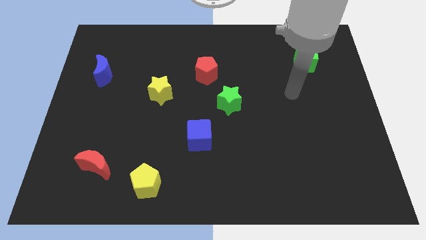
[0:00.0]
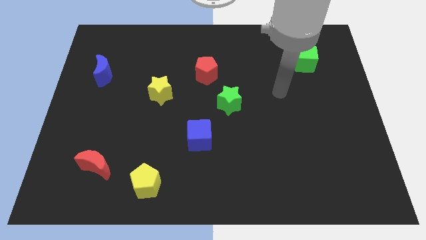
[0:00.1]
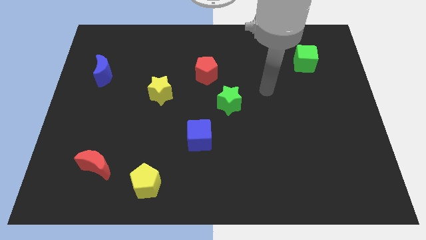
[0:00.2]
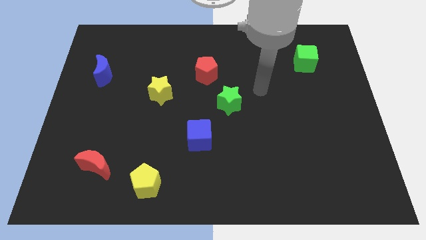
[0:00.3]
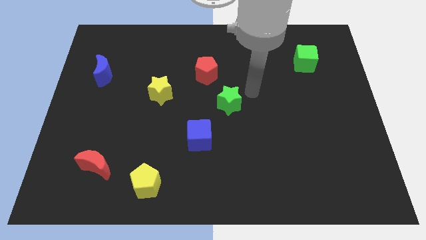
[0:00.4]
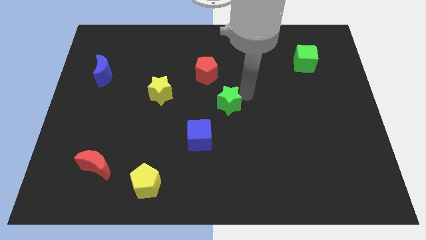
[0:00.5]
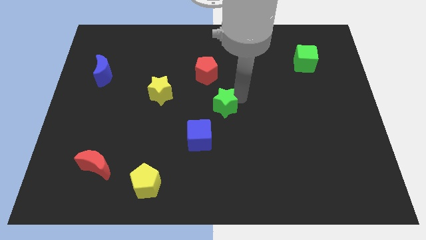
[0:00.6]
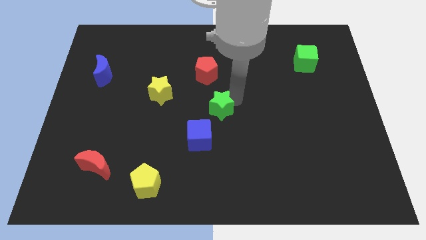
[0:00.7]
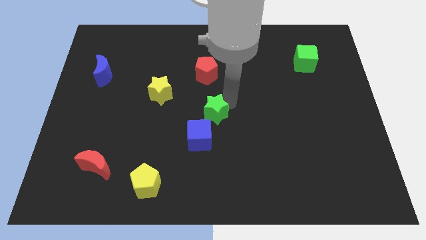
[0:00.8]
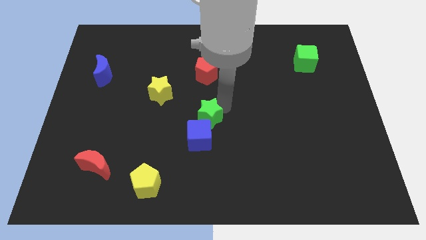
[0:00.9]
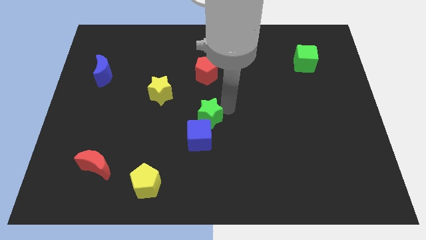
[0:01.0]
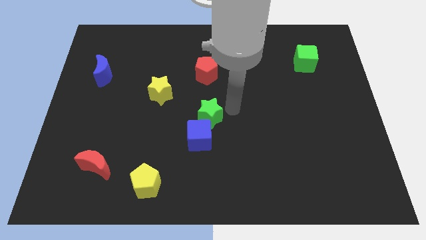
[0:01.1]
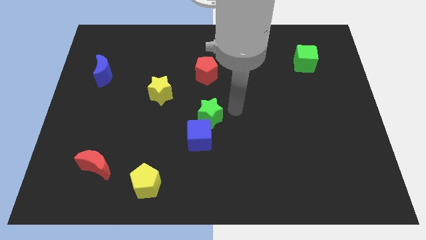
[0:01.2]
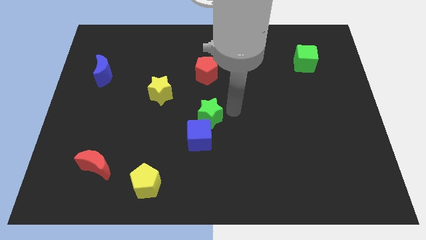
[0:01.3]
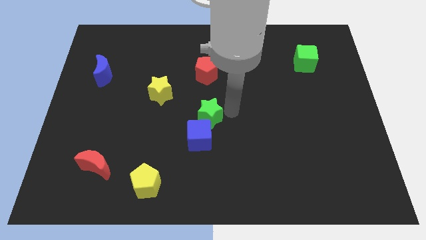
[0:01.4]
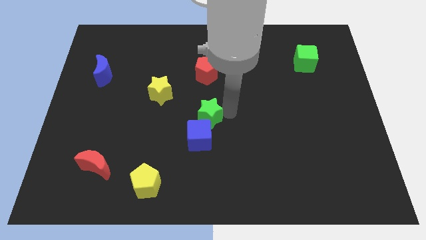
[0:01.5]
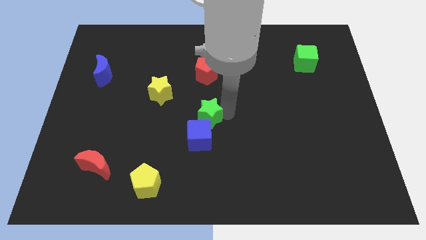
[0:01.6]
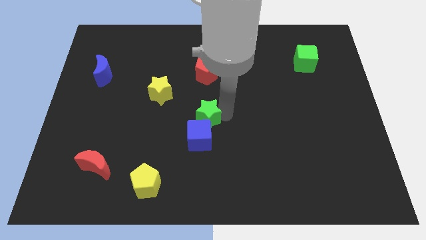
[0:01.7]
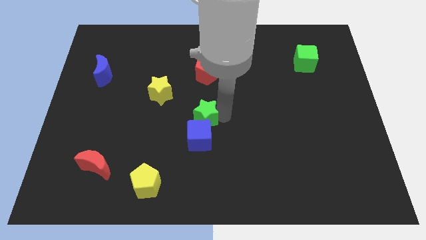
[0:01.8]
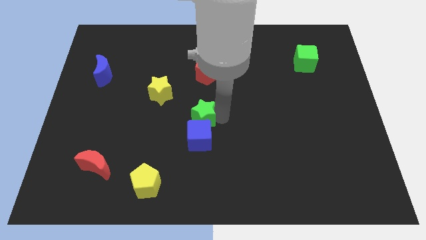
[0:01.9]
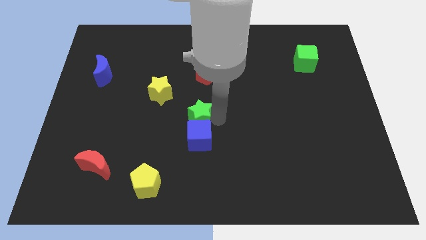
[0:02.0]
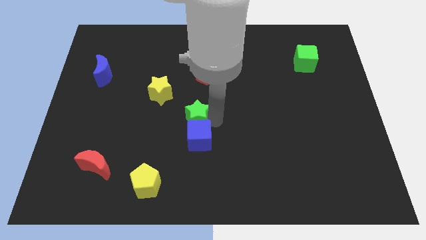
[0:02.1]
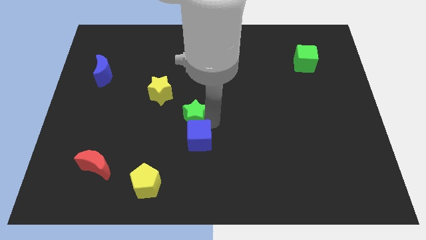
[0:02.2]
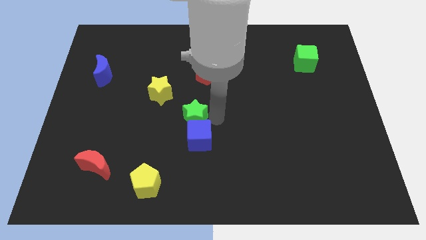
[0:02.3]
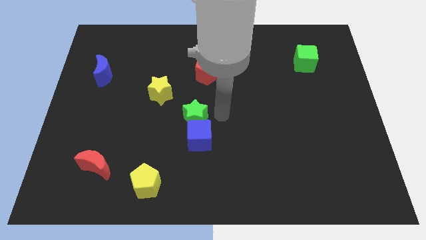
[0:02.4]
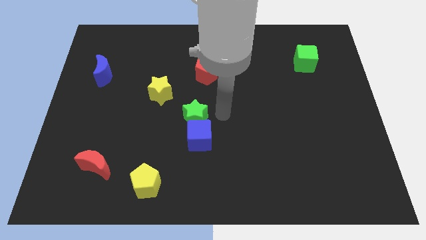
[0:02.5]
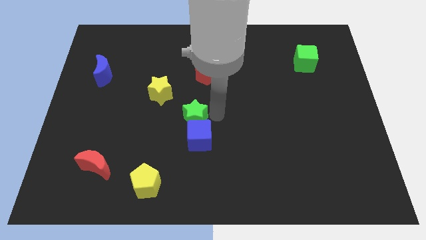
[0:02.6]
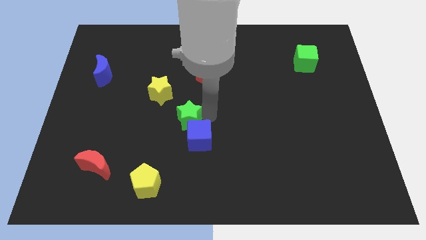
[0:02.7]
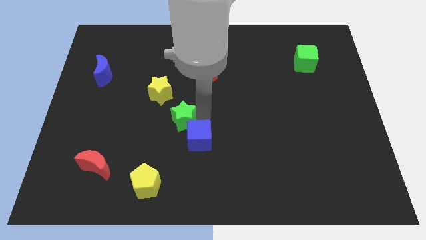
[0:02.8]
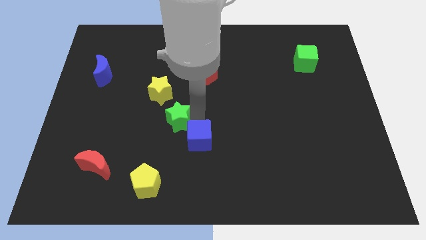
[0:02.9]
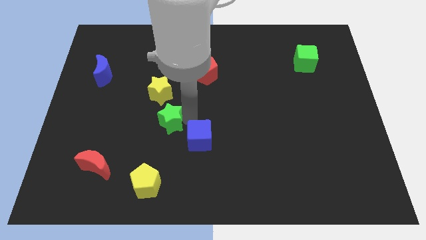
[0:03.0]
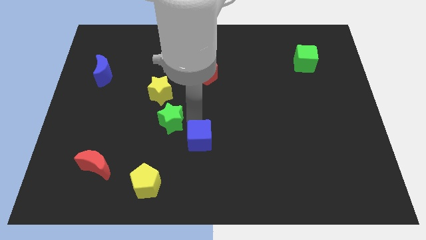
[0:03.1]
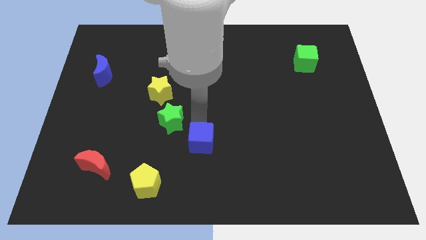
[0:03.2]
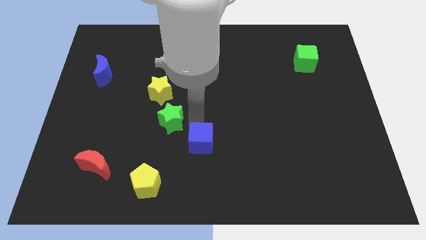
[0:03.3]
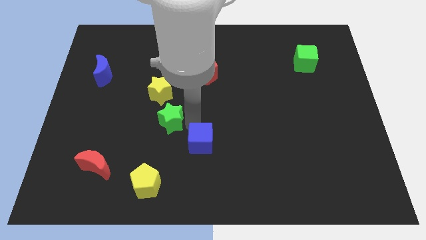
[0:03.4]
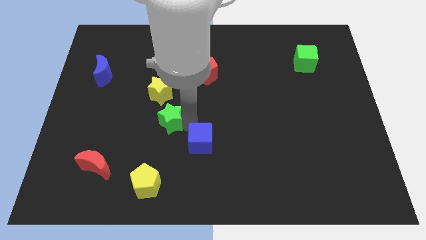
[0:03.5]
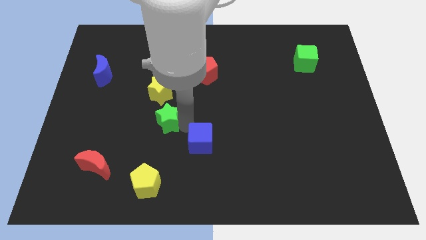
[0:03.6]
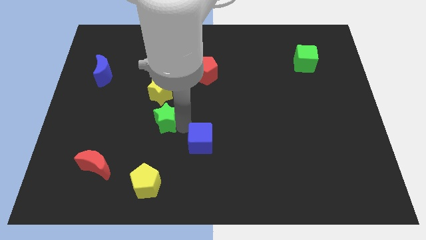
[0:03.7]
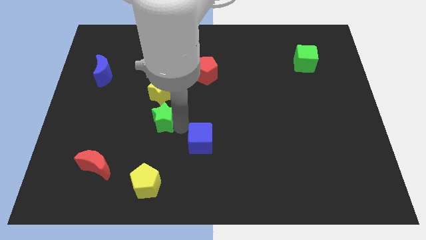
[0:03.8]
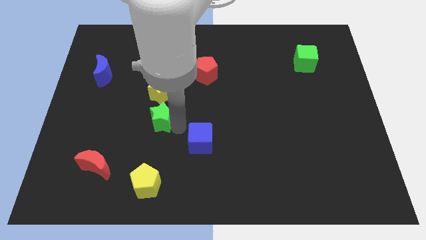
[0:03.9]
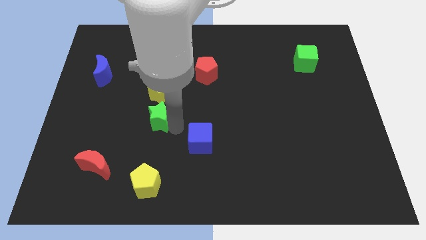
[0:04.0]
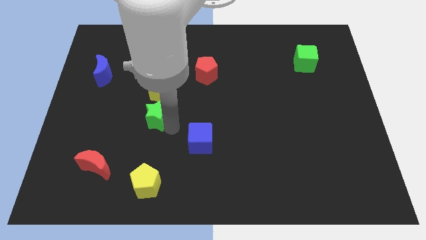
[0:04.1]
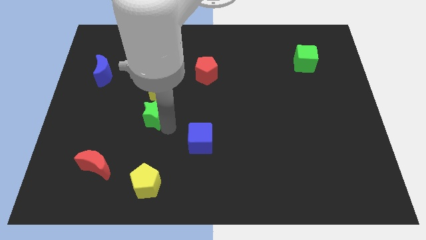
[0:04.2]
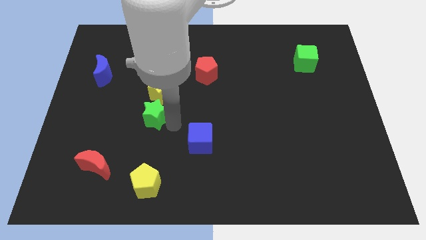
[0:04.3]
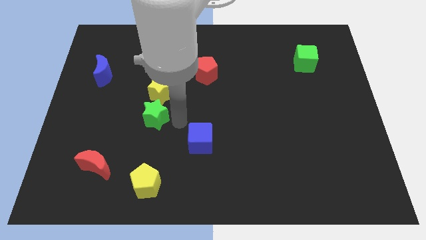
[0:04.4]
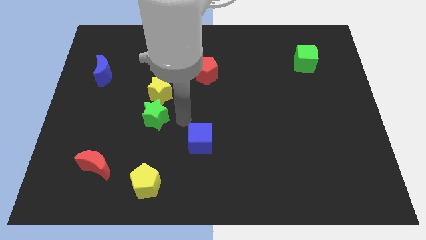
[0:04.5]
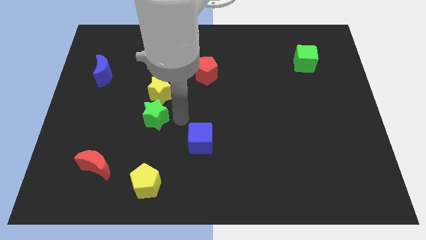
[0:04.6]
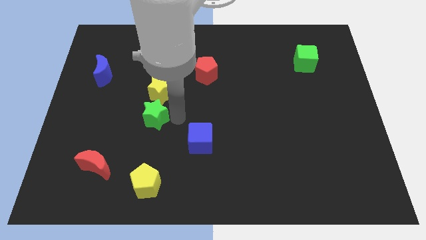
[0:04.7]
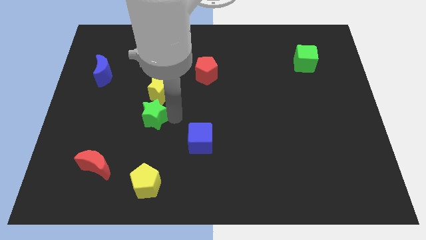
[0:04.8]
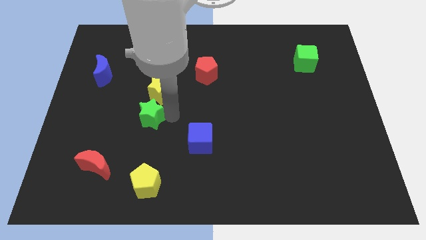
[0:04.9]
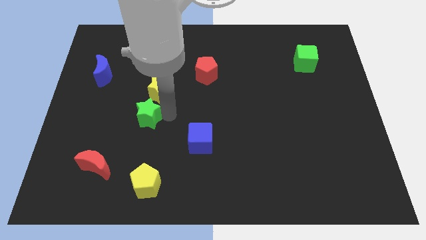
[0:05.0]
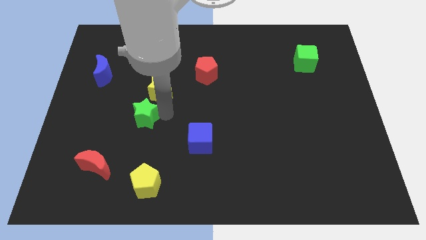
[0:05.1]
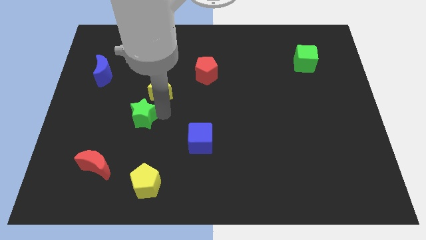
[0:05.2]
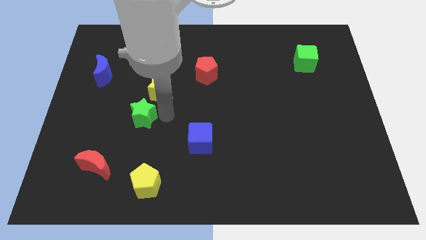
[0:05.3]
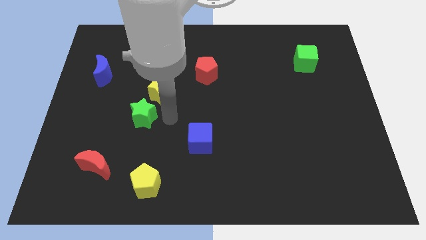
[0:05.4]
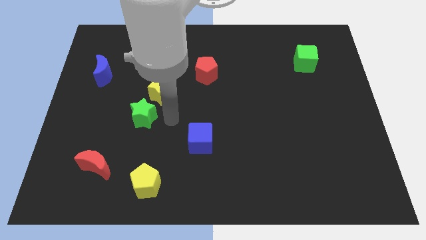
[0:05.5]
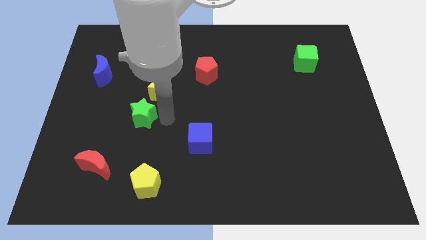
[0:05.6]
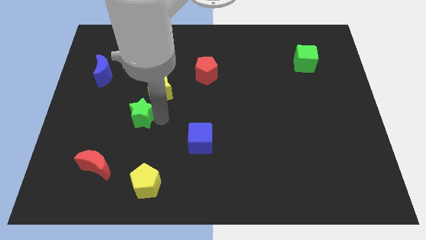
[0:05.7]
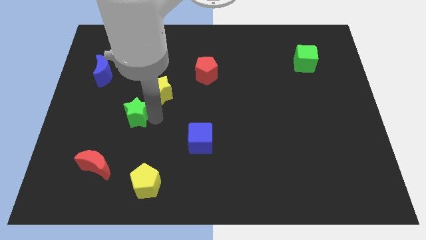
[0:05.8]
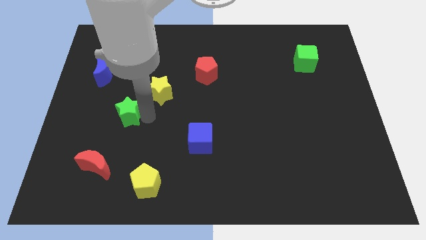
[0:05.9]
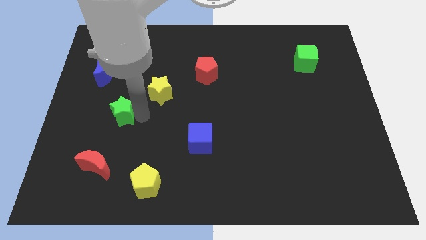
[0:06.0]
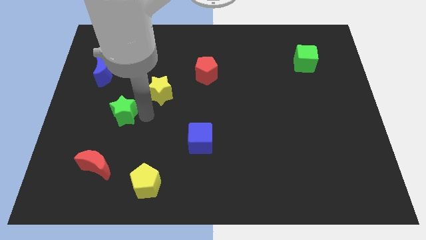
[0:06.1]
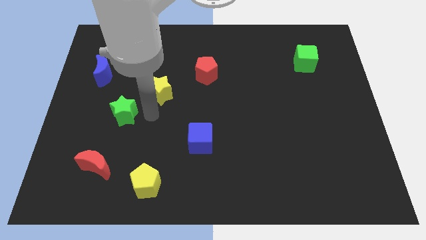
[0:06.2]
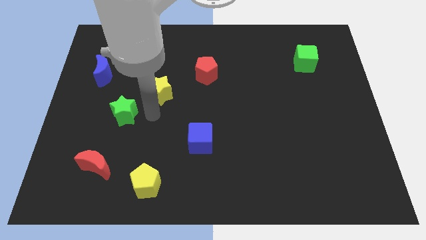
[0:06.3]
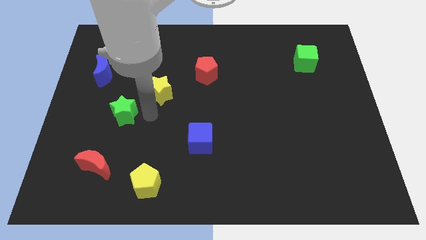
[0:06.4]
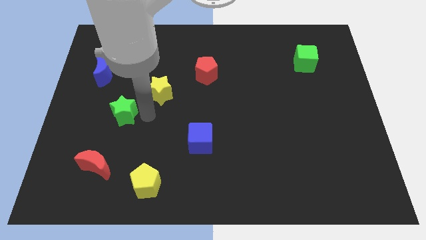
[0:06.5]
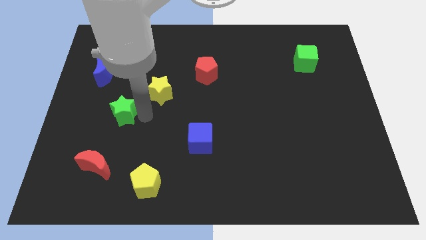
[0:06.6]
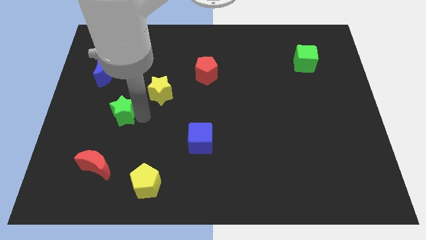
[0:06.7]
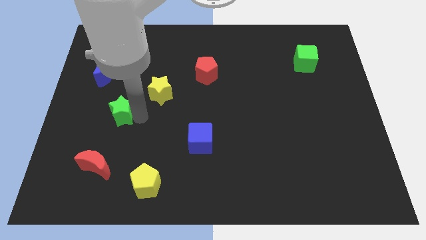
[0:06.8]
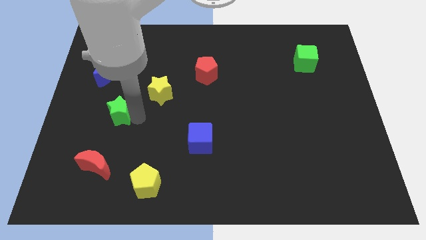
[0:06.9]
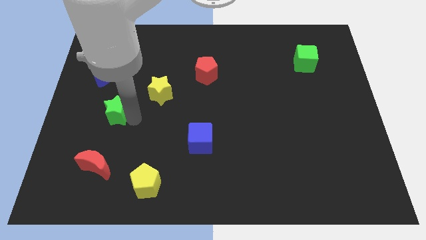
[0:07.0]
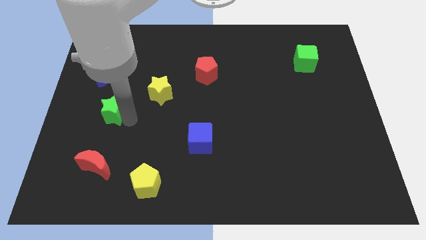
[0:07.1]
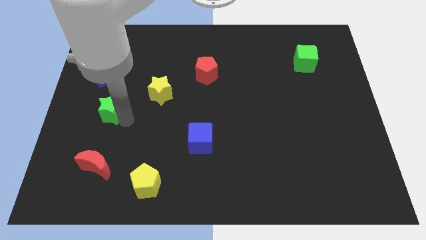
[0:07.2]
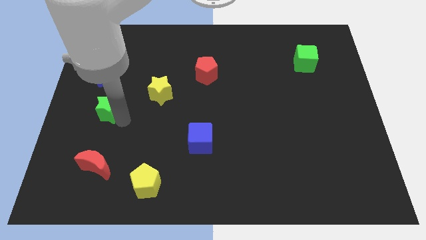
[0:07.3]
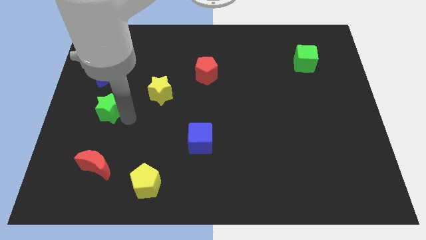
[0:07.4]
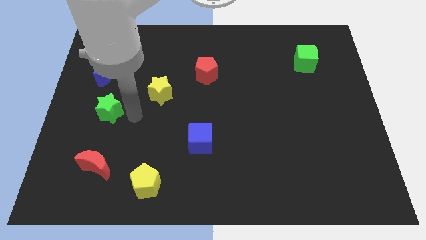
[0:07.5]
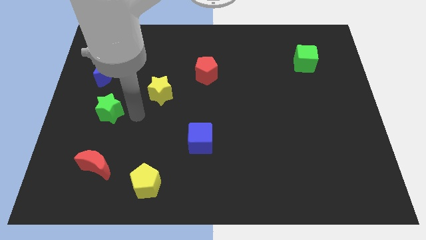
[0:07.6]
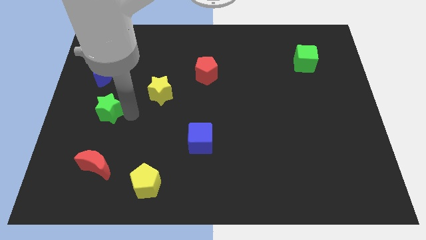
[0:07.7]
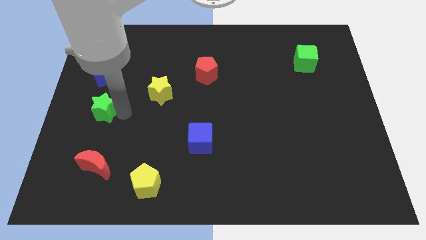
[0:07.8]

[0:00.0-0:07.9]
move the green star to the left side
